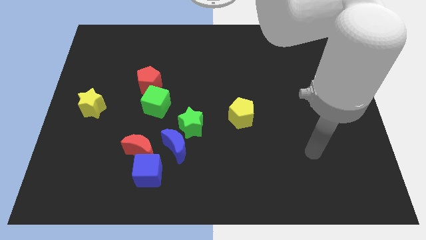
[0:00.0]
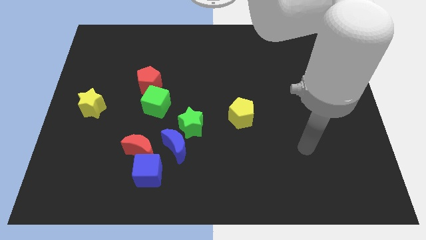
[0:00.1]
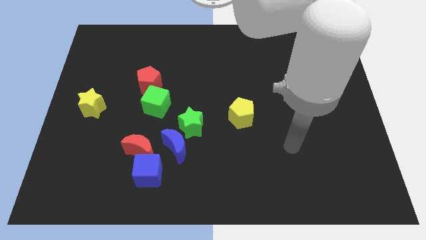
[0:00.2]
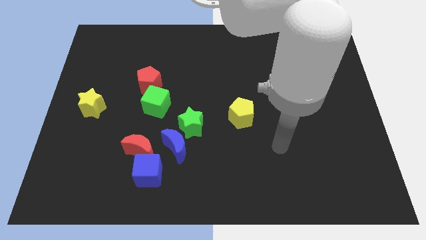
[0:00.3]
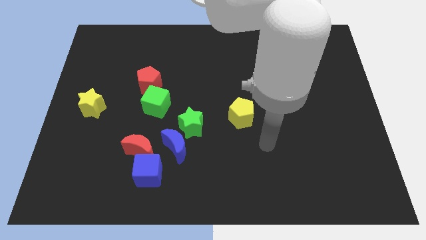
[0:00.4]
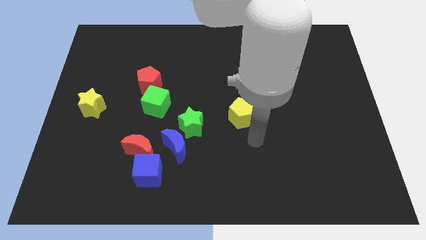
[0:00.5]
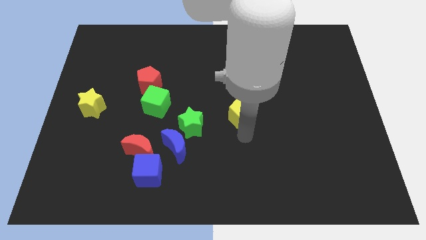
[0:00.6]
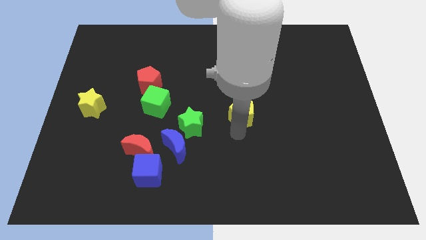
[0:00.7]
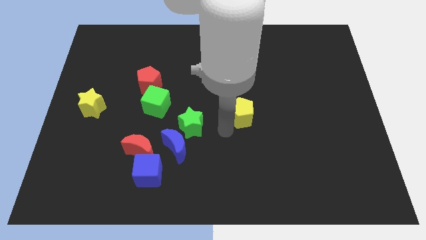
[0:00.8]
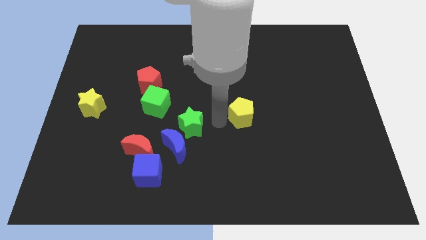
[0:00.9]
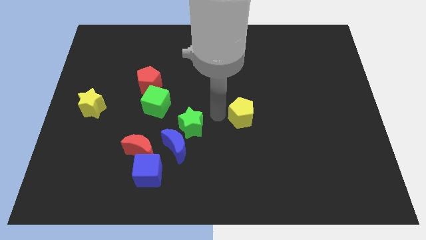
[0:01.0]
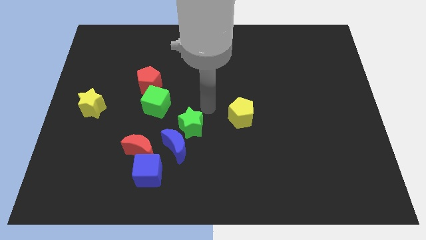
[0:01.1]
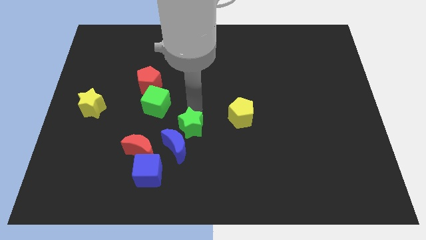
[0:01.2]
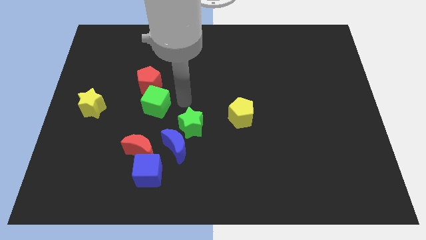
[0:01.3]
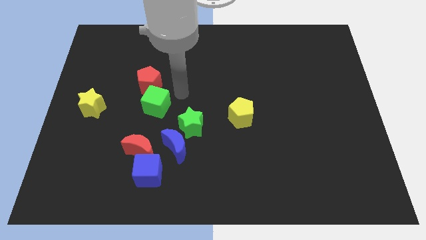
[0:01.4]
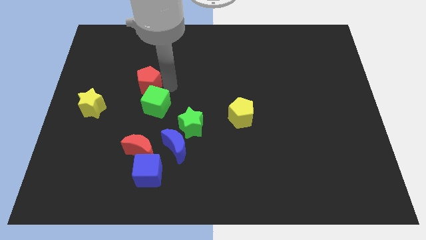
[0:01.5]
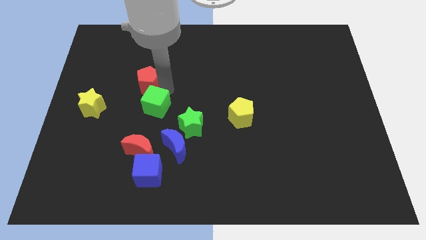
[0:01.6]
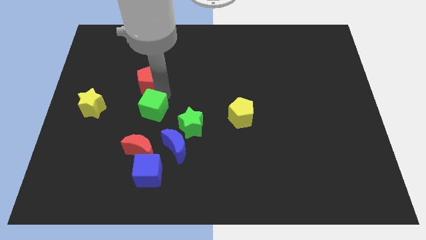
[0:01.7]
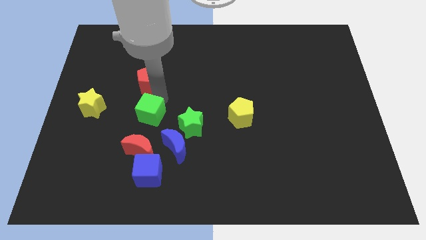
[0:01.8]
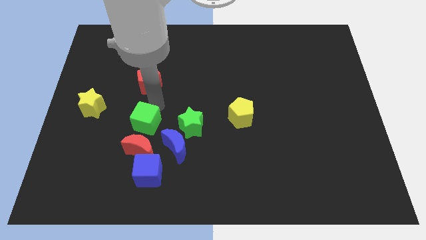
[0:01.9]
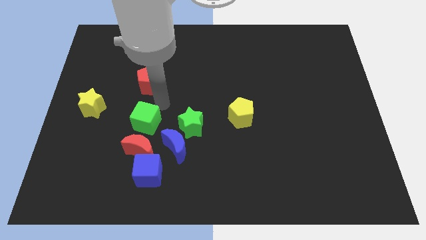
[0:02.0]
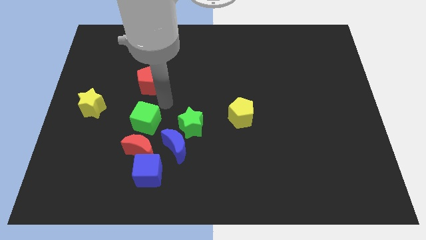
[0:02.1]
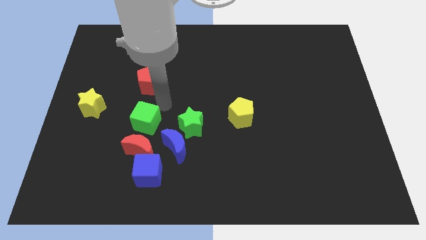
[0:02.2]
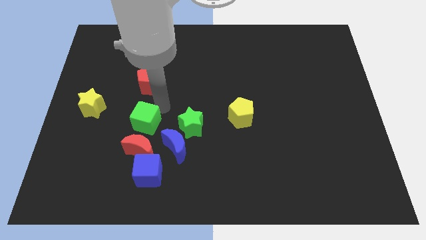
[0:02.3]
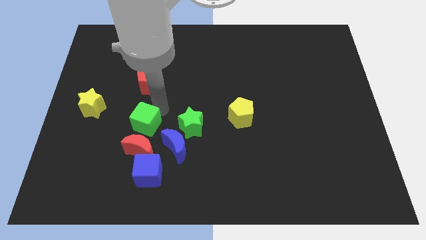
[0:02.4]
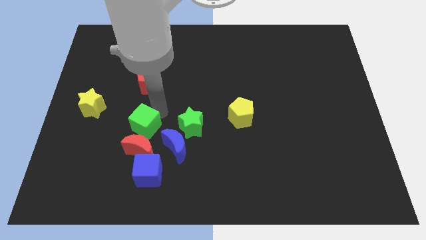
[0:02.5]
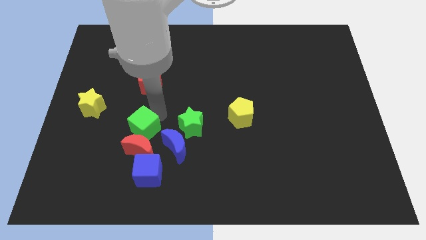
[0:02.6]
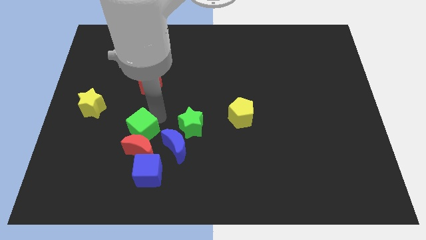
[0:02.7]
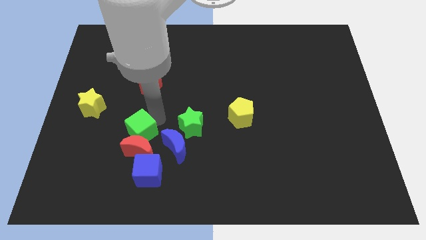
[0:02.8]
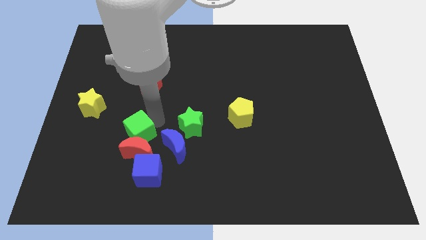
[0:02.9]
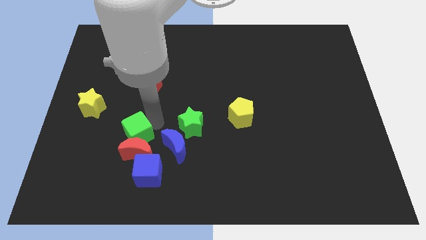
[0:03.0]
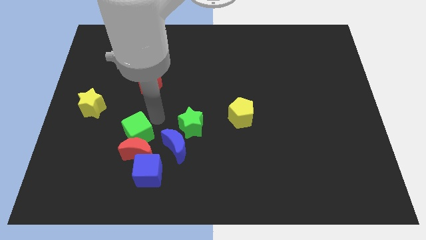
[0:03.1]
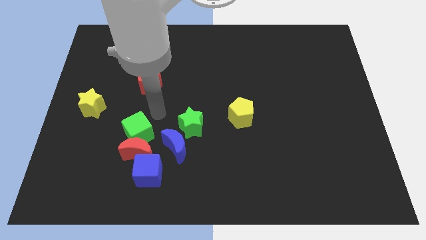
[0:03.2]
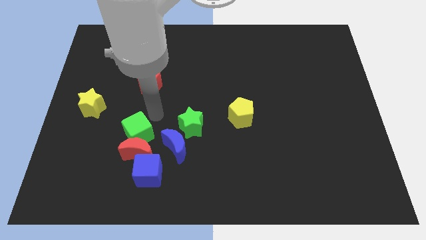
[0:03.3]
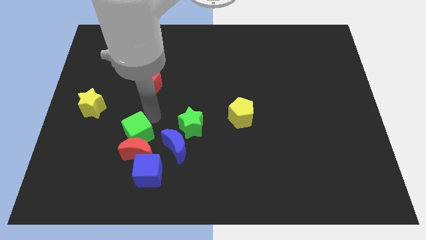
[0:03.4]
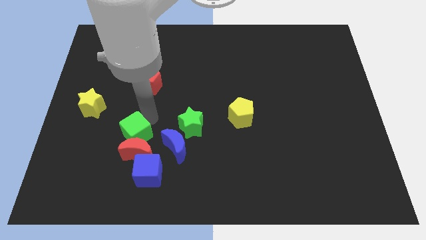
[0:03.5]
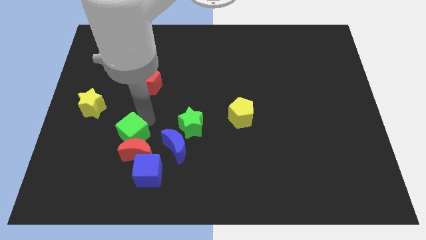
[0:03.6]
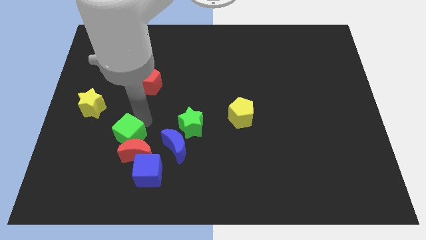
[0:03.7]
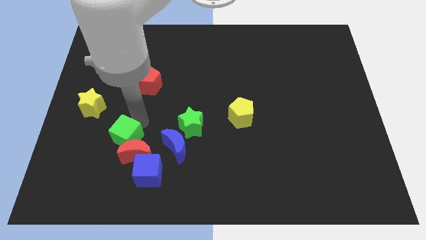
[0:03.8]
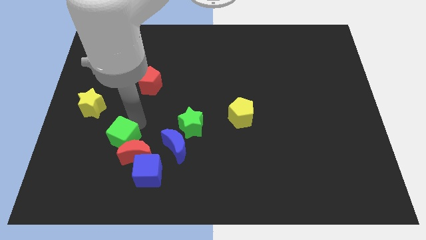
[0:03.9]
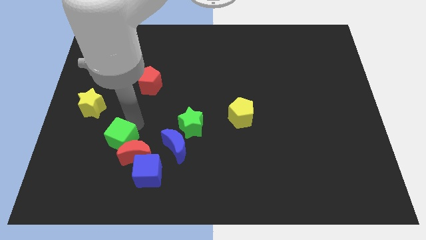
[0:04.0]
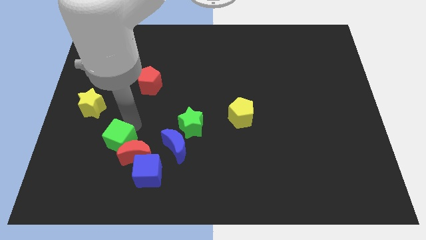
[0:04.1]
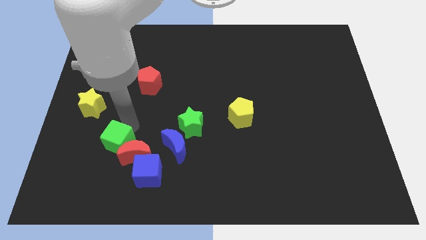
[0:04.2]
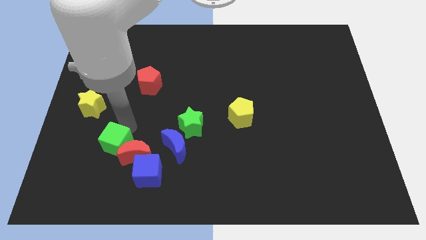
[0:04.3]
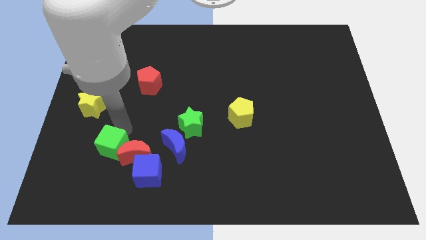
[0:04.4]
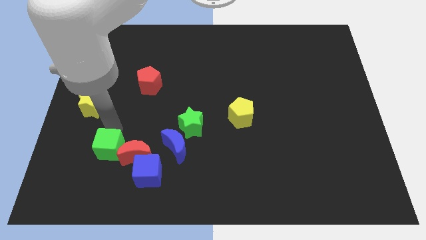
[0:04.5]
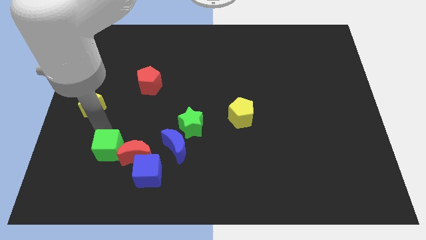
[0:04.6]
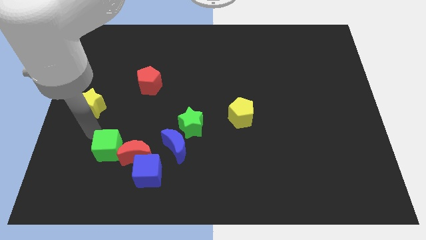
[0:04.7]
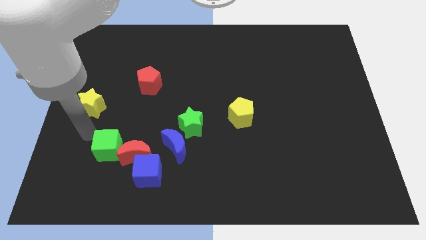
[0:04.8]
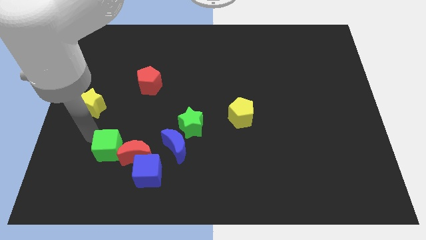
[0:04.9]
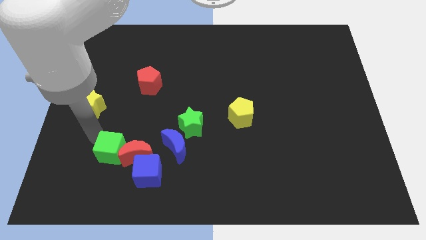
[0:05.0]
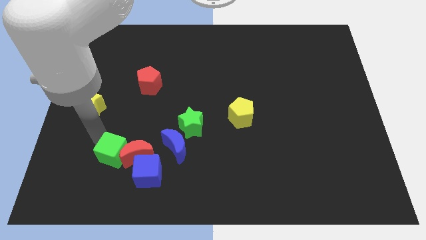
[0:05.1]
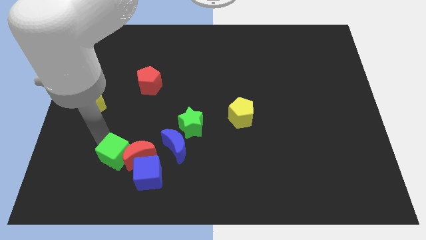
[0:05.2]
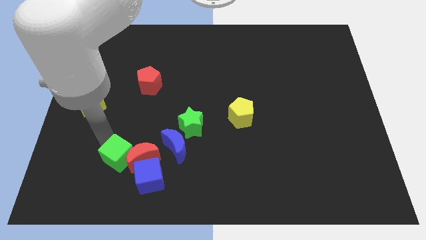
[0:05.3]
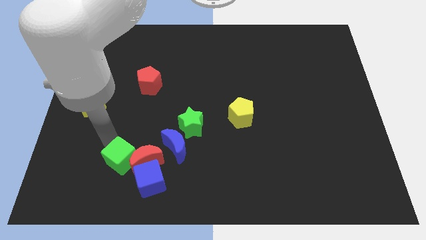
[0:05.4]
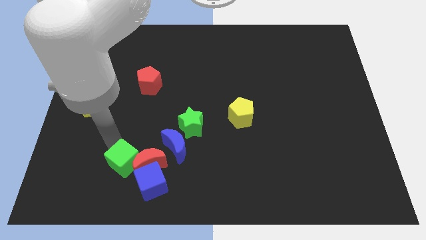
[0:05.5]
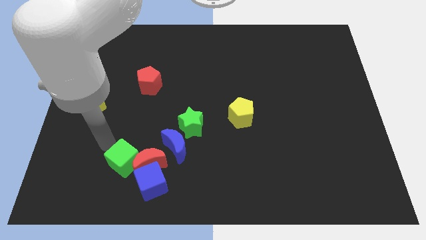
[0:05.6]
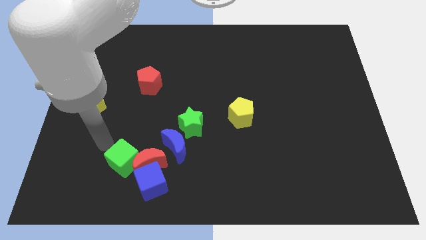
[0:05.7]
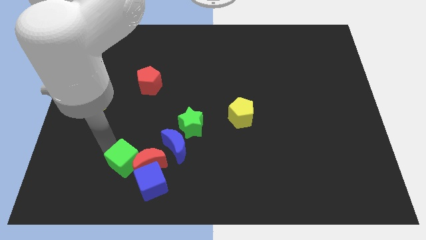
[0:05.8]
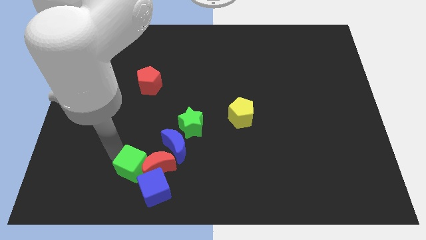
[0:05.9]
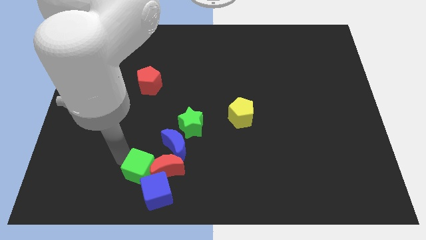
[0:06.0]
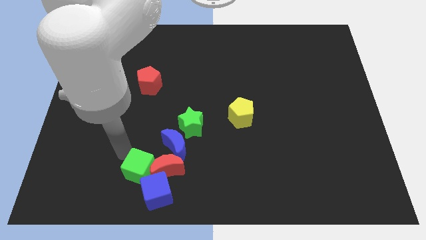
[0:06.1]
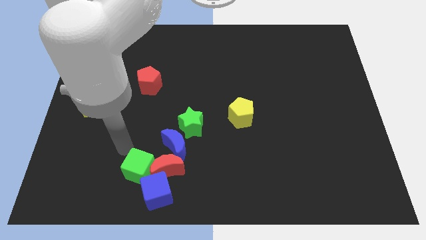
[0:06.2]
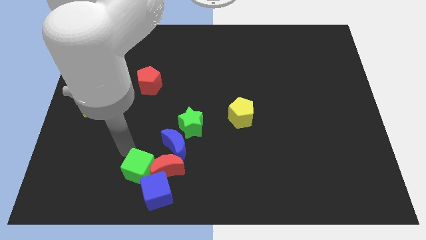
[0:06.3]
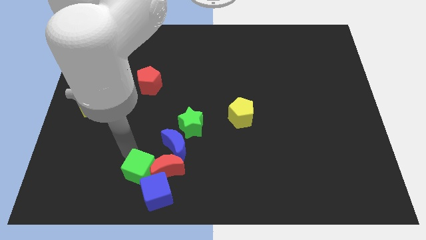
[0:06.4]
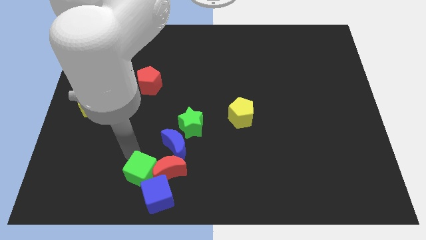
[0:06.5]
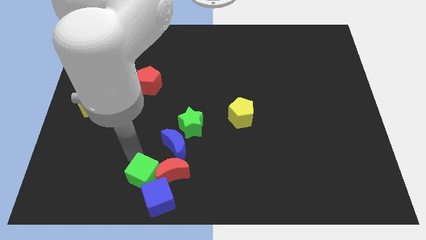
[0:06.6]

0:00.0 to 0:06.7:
slide the green cube to the blue cube

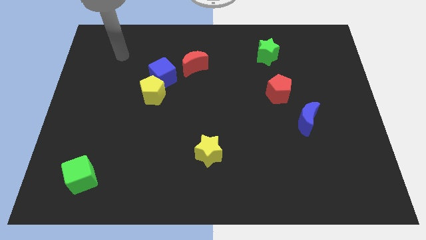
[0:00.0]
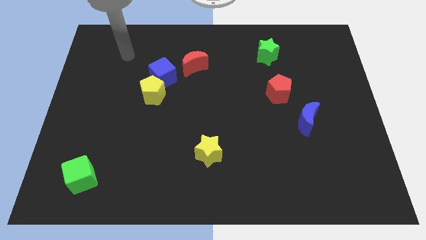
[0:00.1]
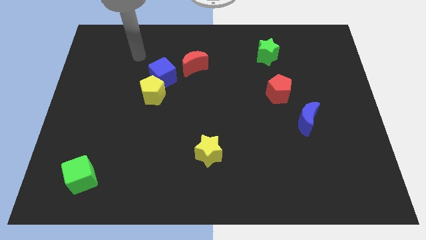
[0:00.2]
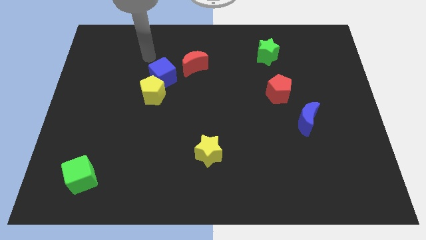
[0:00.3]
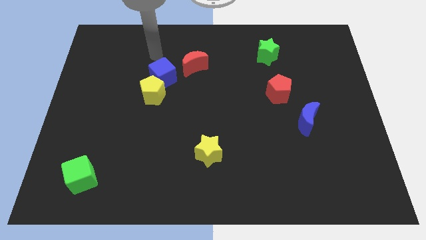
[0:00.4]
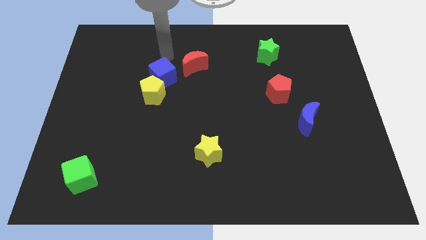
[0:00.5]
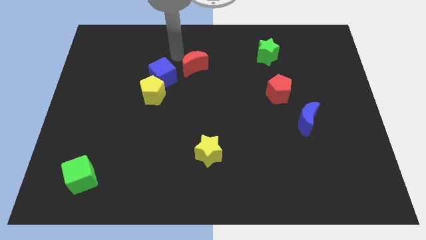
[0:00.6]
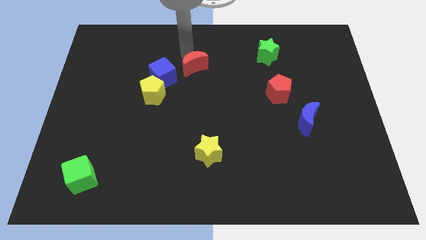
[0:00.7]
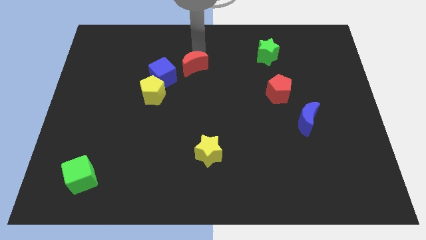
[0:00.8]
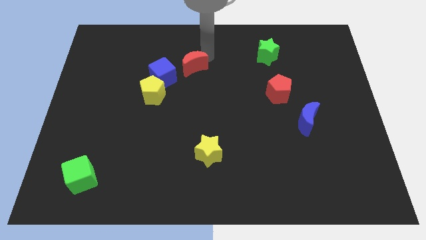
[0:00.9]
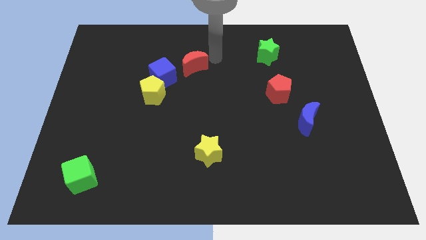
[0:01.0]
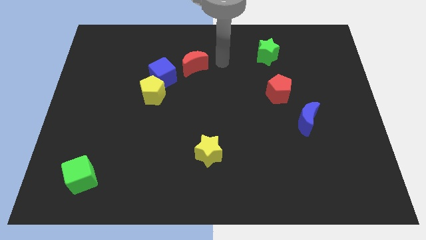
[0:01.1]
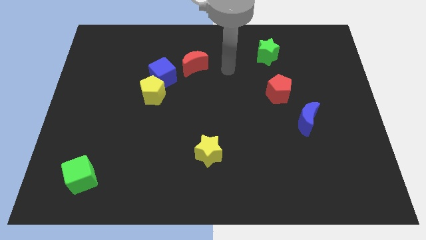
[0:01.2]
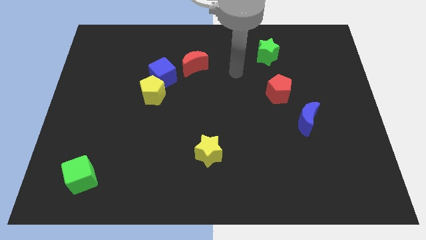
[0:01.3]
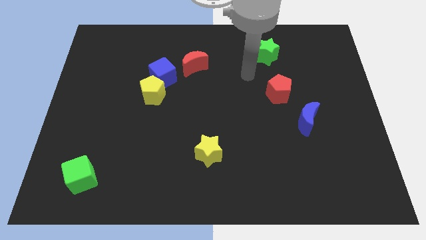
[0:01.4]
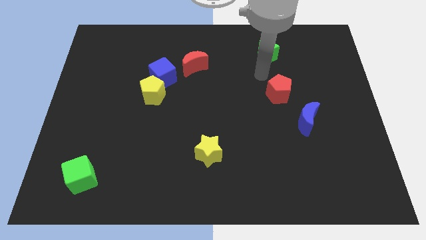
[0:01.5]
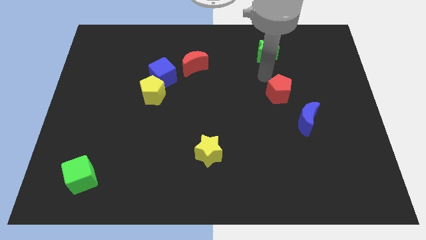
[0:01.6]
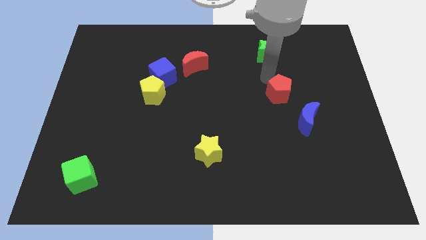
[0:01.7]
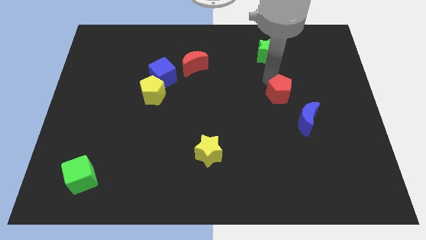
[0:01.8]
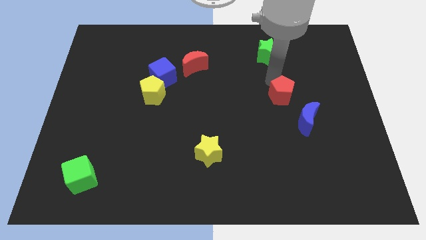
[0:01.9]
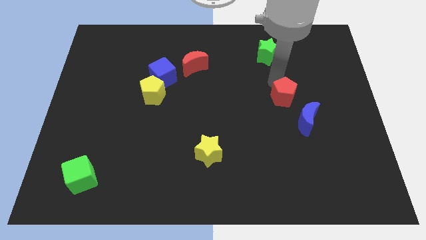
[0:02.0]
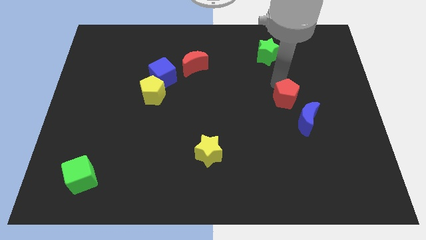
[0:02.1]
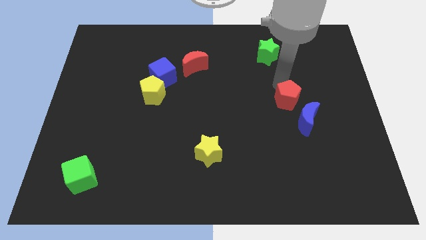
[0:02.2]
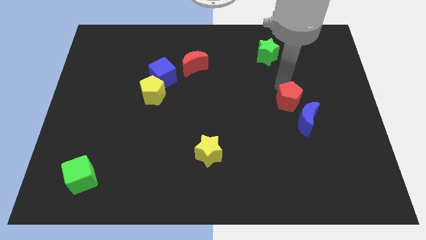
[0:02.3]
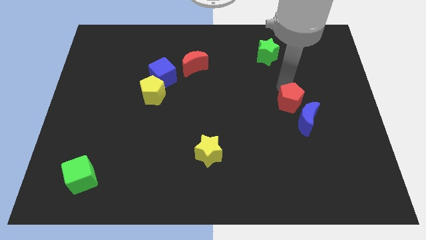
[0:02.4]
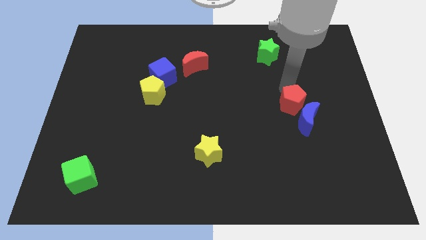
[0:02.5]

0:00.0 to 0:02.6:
push the red pentagon to the blue moon
